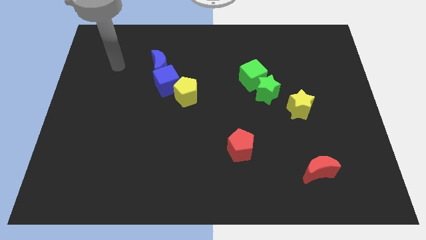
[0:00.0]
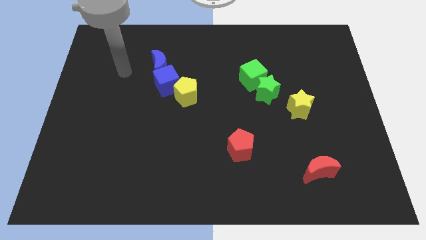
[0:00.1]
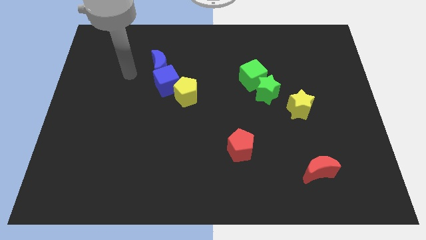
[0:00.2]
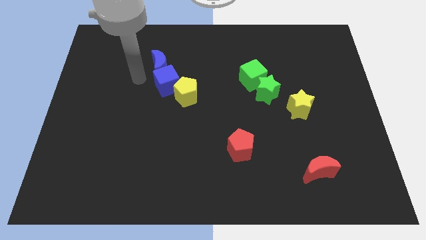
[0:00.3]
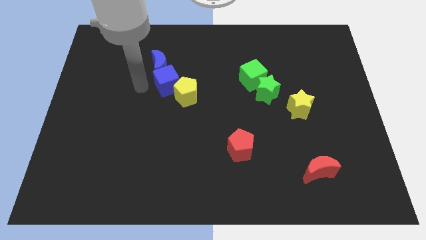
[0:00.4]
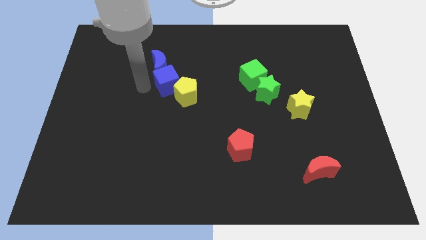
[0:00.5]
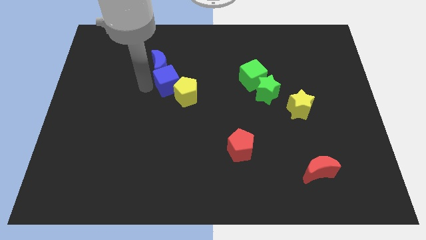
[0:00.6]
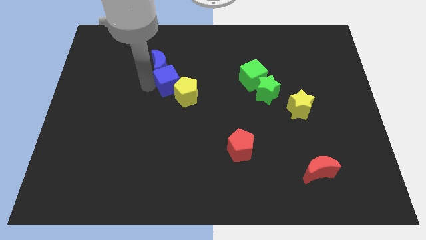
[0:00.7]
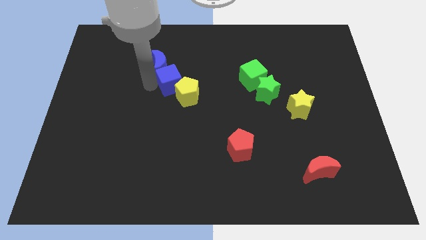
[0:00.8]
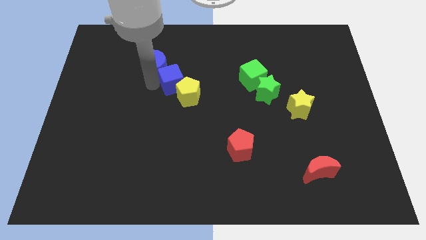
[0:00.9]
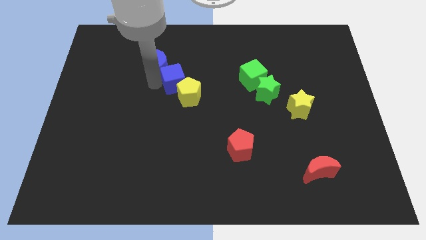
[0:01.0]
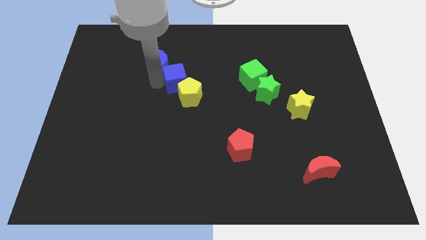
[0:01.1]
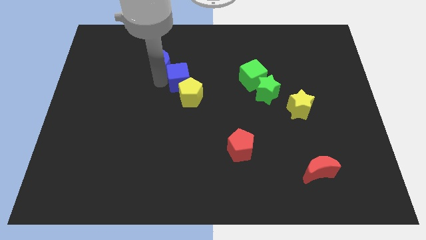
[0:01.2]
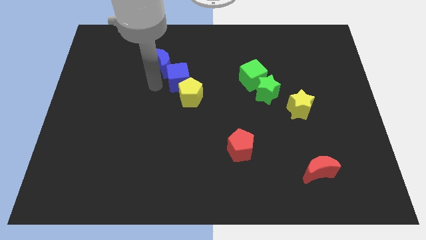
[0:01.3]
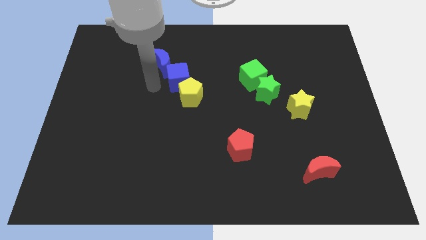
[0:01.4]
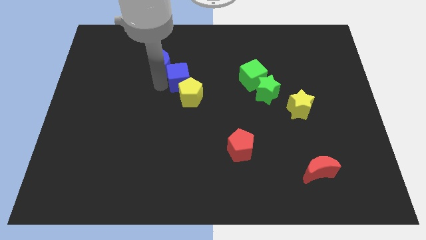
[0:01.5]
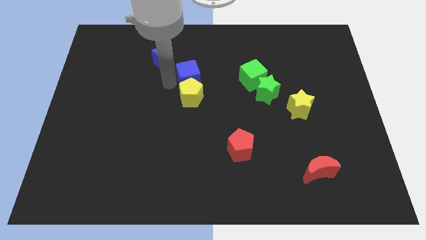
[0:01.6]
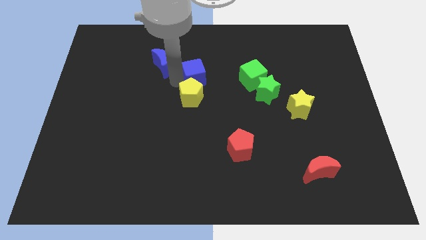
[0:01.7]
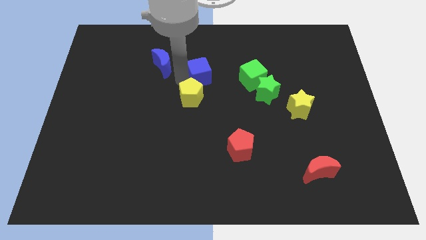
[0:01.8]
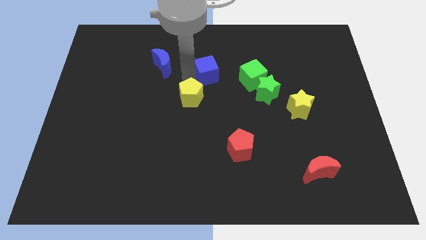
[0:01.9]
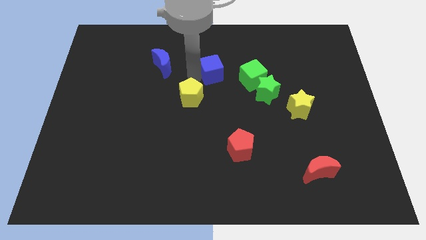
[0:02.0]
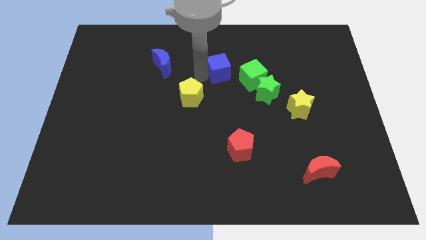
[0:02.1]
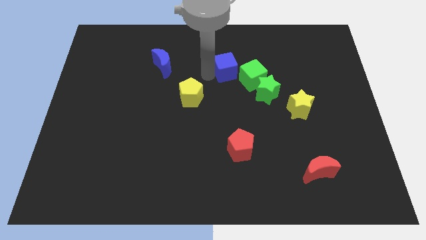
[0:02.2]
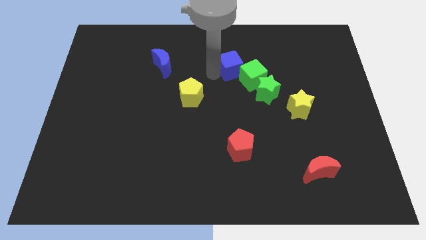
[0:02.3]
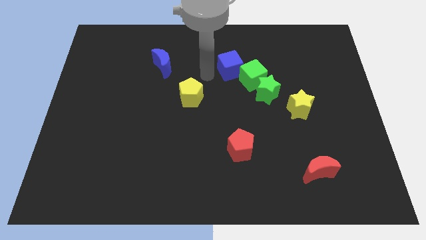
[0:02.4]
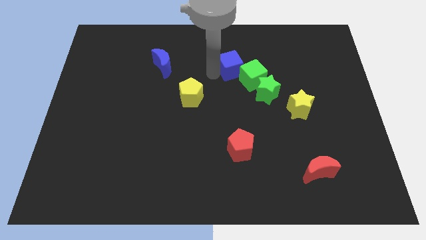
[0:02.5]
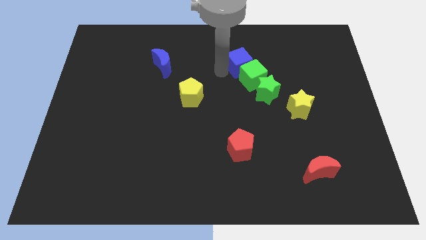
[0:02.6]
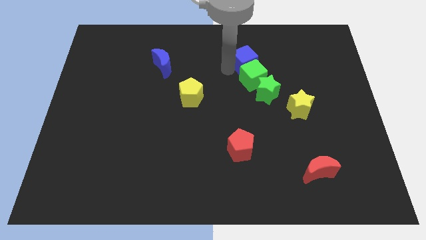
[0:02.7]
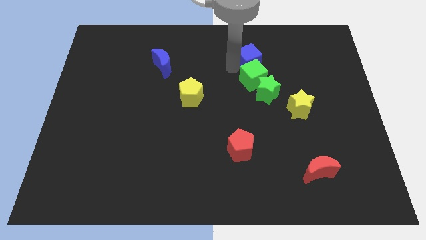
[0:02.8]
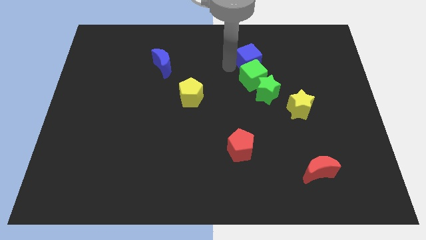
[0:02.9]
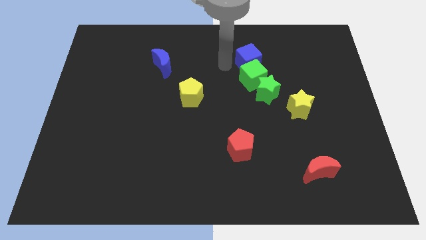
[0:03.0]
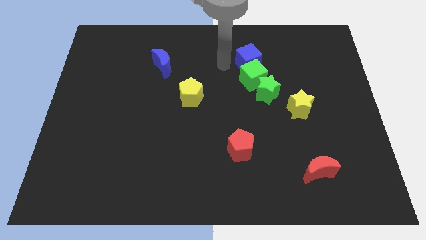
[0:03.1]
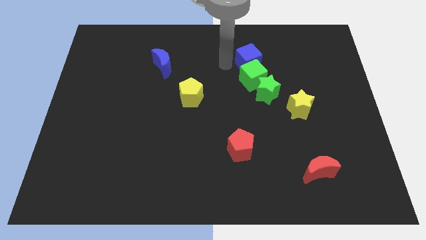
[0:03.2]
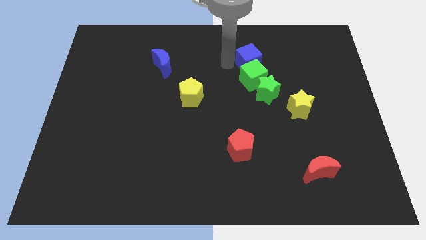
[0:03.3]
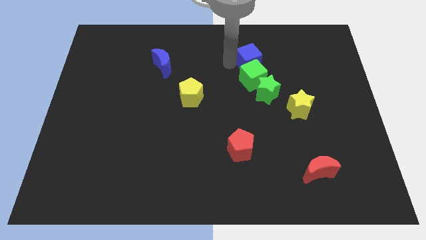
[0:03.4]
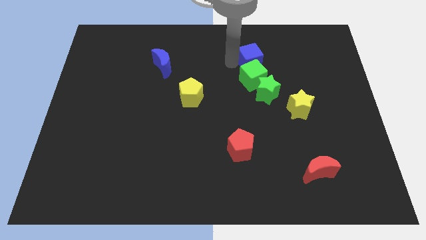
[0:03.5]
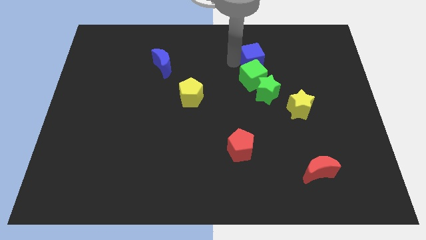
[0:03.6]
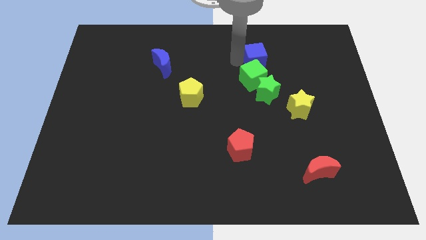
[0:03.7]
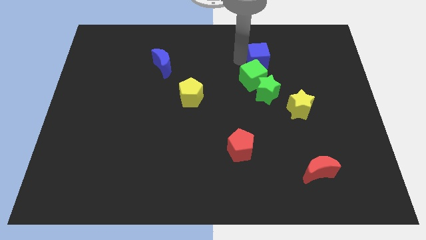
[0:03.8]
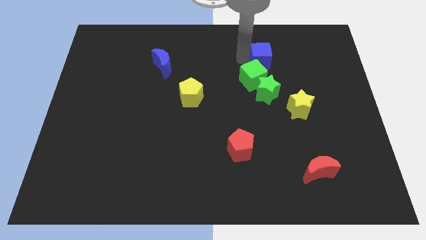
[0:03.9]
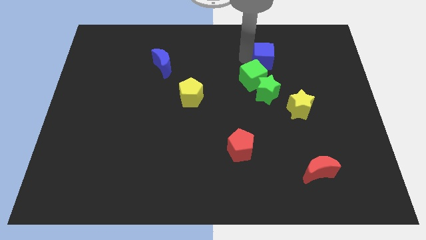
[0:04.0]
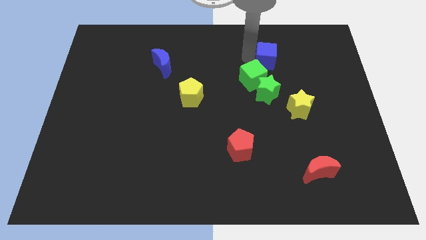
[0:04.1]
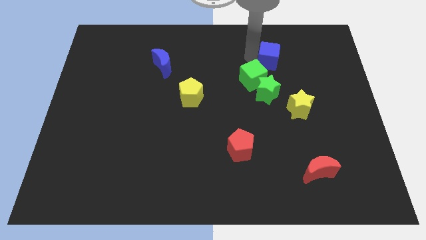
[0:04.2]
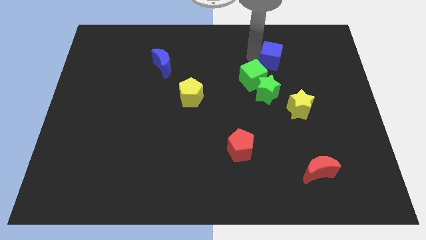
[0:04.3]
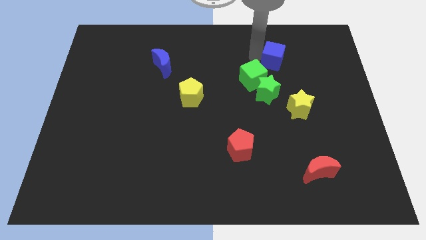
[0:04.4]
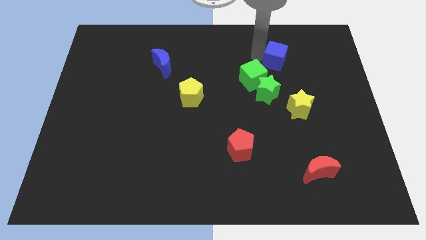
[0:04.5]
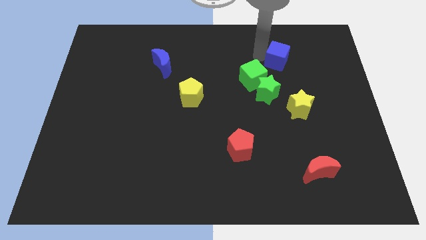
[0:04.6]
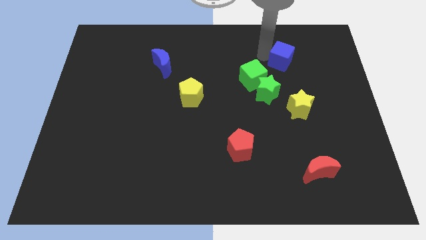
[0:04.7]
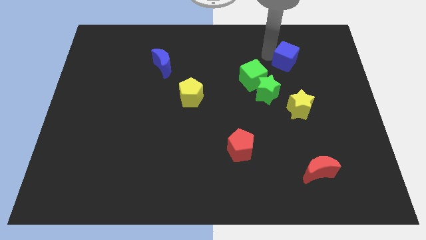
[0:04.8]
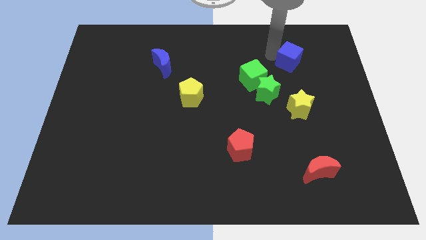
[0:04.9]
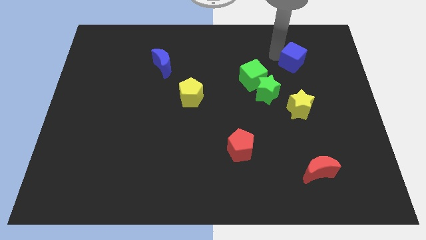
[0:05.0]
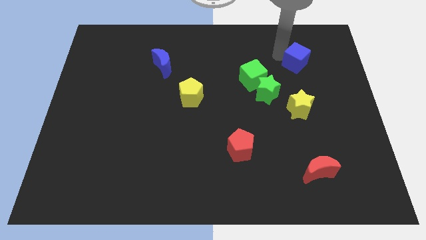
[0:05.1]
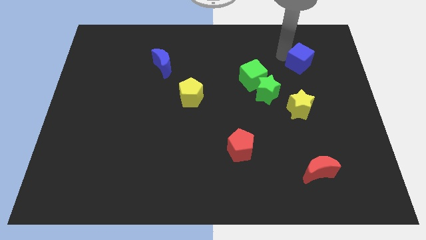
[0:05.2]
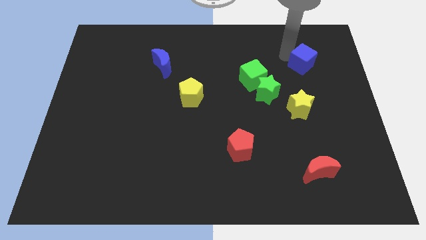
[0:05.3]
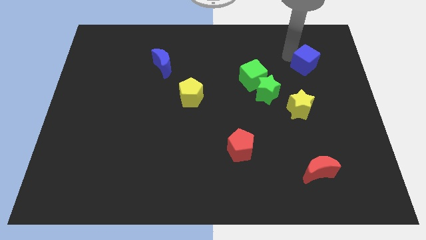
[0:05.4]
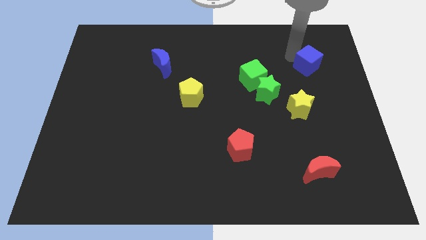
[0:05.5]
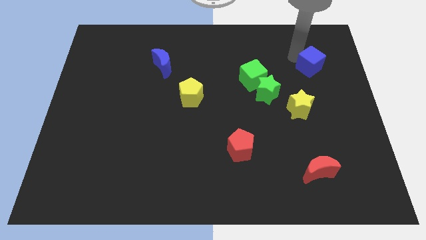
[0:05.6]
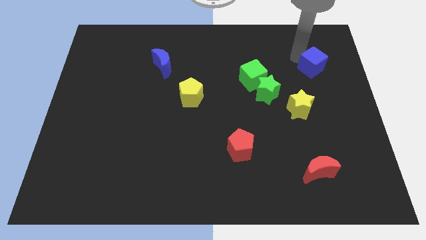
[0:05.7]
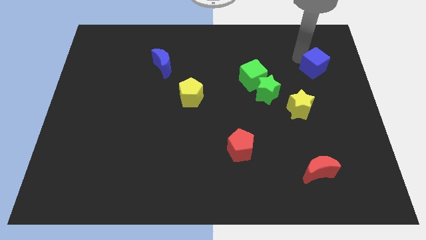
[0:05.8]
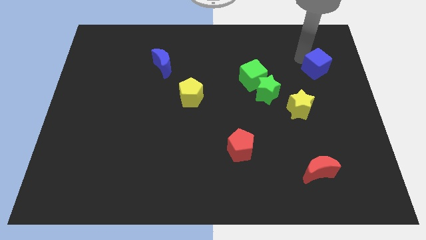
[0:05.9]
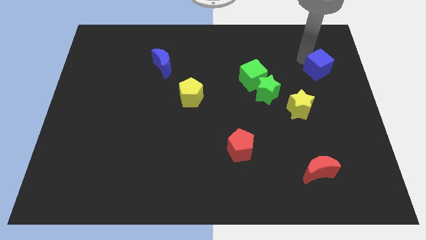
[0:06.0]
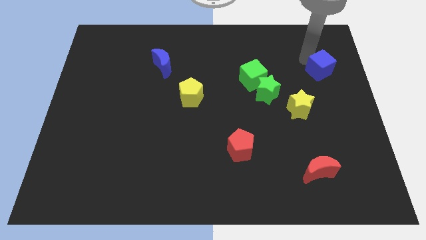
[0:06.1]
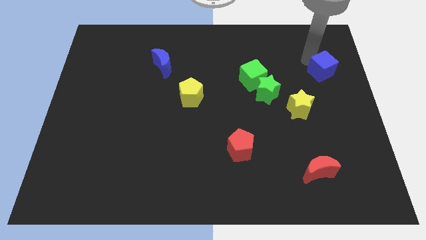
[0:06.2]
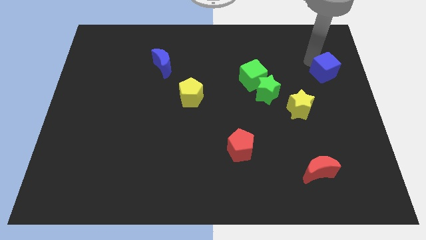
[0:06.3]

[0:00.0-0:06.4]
slide the blue cube to the right side of the board

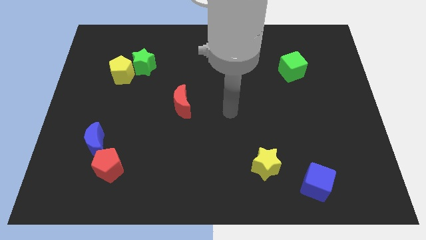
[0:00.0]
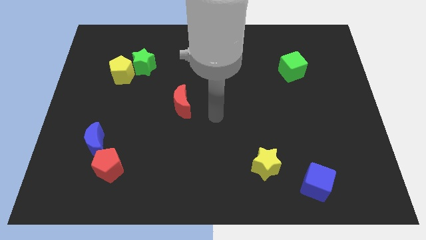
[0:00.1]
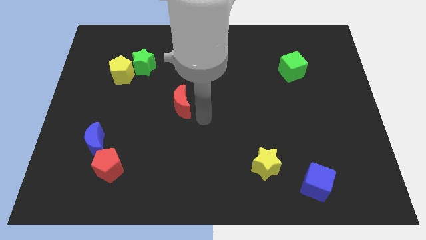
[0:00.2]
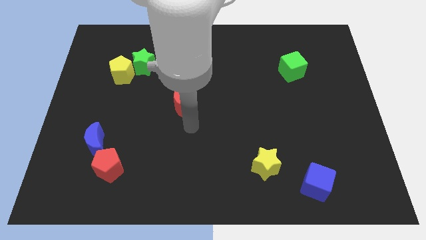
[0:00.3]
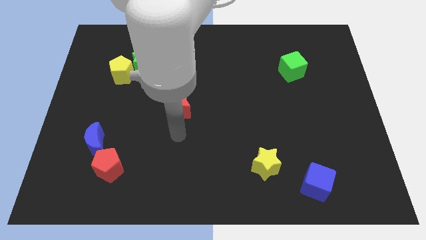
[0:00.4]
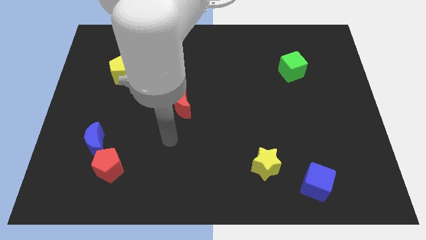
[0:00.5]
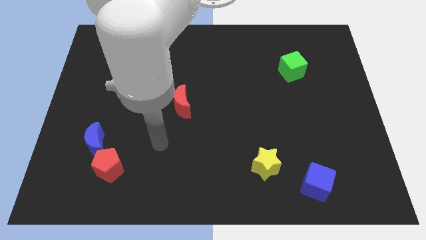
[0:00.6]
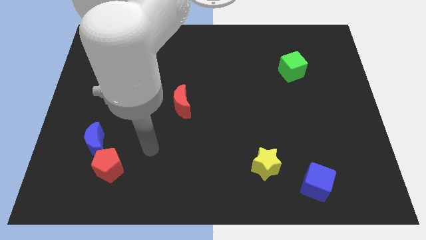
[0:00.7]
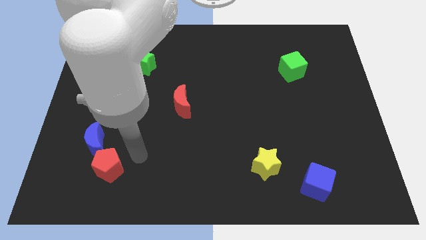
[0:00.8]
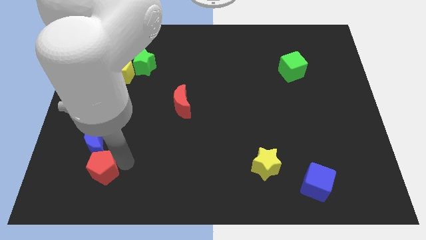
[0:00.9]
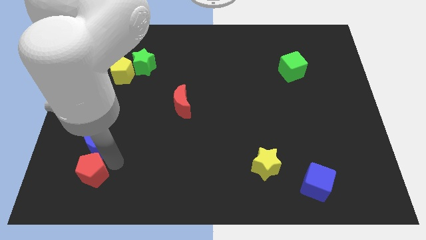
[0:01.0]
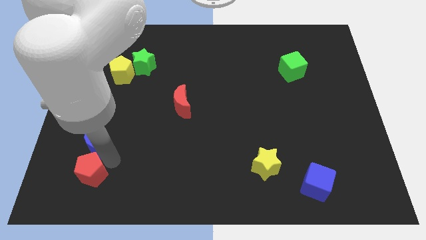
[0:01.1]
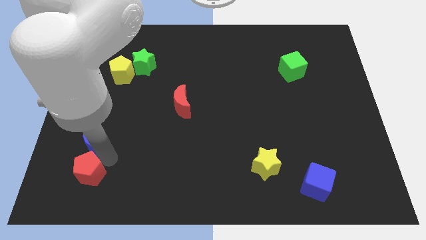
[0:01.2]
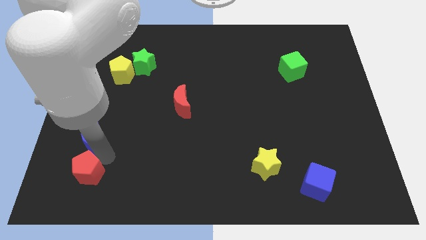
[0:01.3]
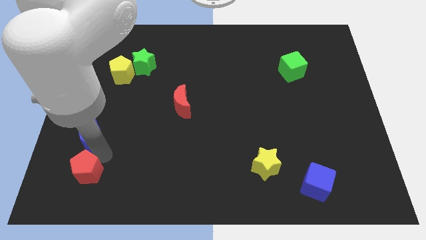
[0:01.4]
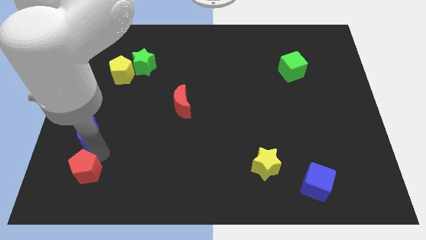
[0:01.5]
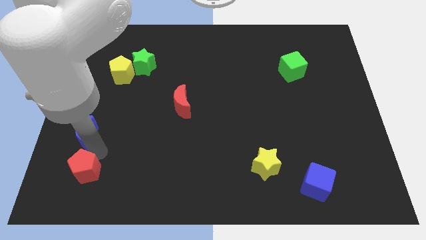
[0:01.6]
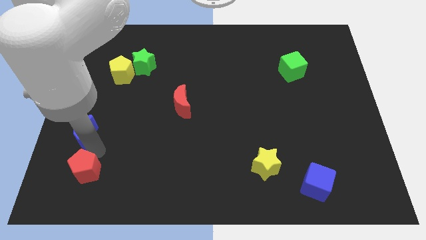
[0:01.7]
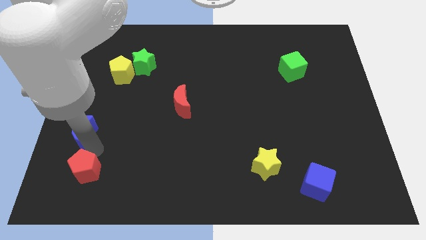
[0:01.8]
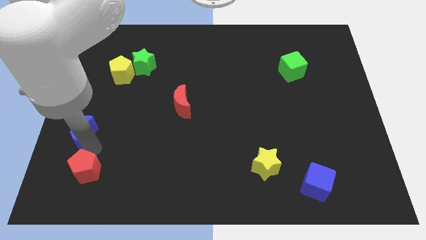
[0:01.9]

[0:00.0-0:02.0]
put the blue moon to the left side
